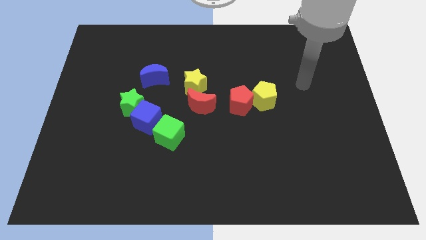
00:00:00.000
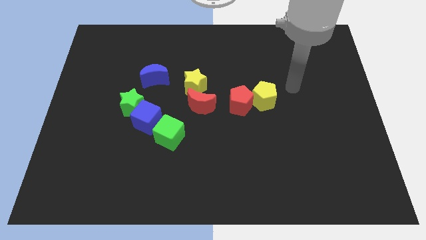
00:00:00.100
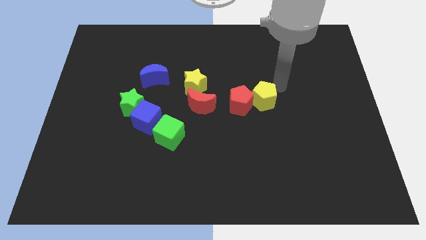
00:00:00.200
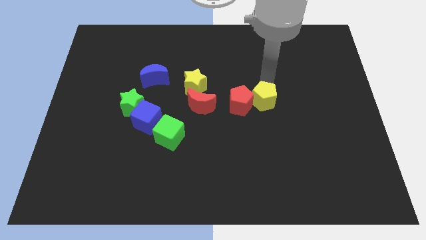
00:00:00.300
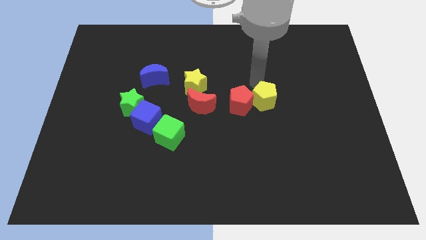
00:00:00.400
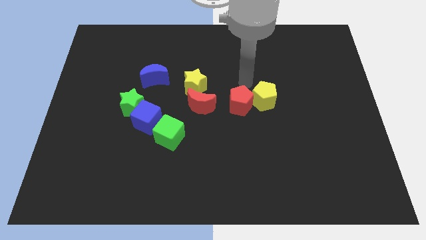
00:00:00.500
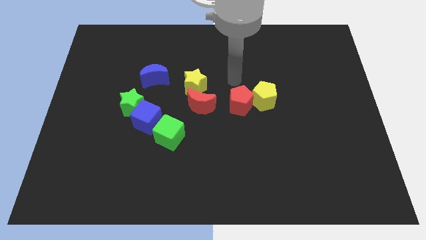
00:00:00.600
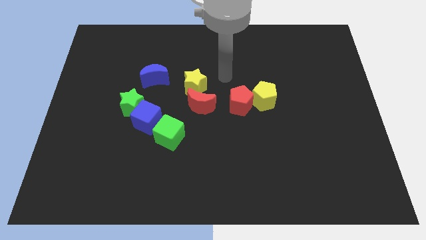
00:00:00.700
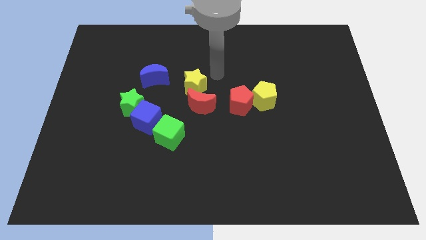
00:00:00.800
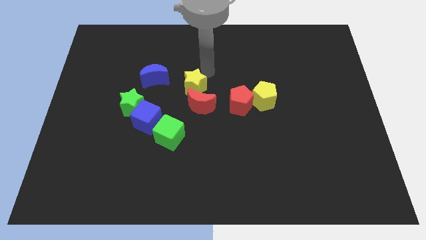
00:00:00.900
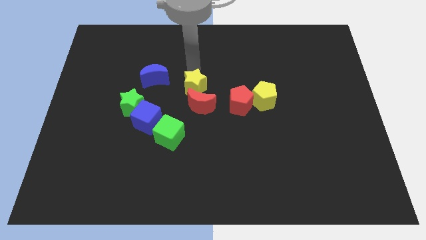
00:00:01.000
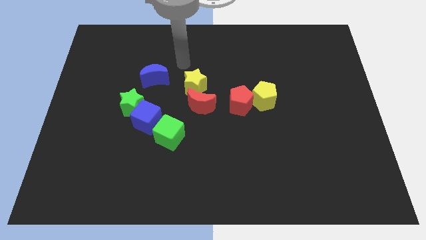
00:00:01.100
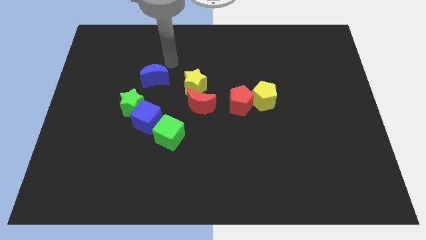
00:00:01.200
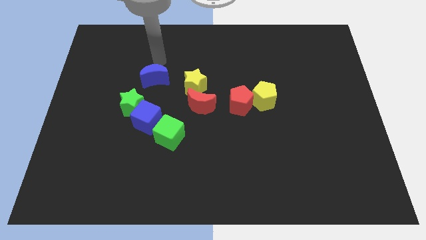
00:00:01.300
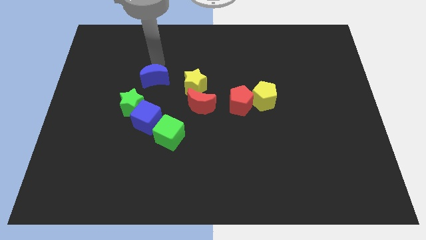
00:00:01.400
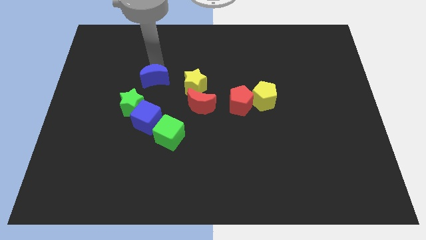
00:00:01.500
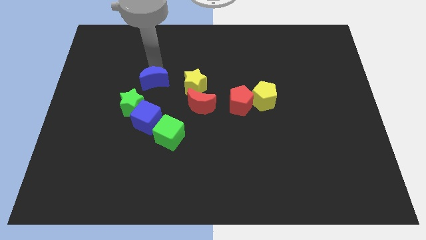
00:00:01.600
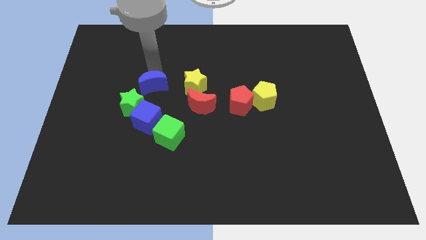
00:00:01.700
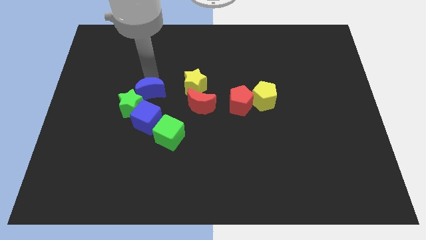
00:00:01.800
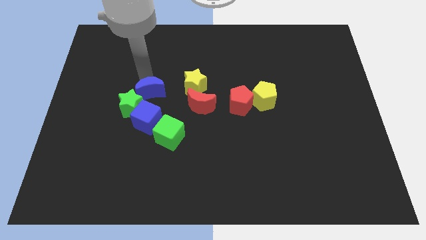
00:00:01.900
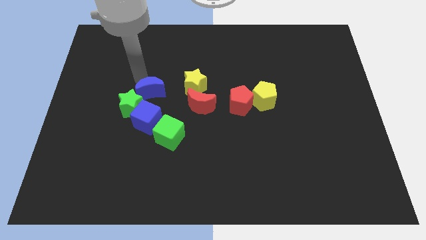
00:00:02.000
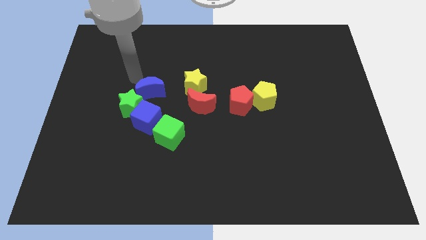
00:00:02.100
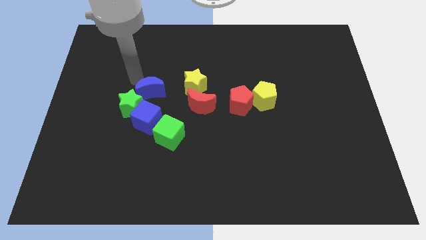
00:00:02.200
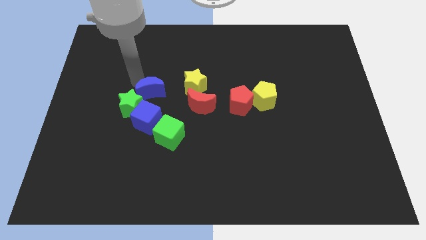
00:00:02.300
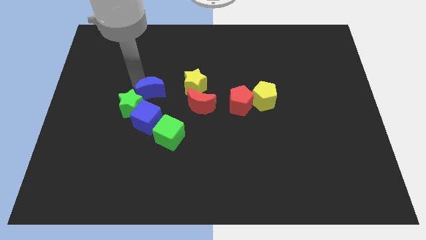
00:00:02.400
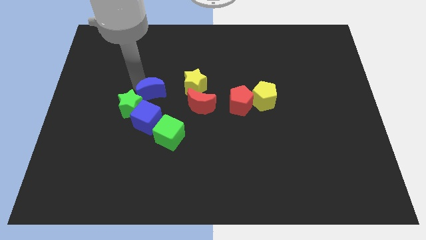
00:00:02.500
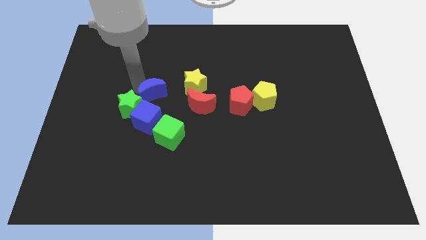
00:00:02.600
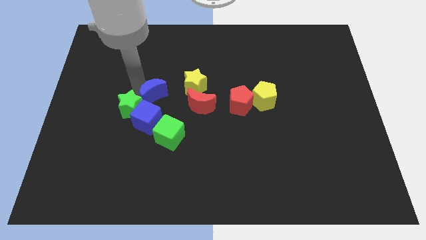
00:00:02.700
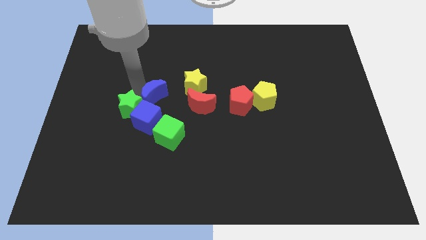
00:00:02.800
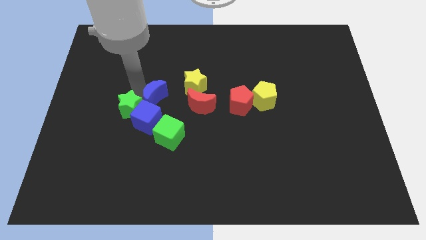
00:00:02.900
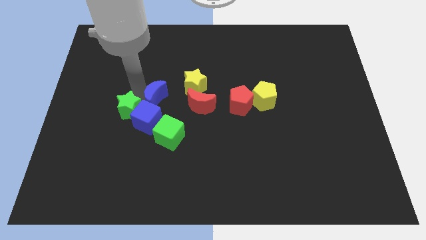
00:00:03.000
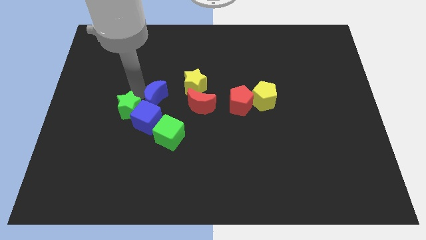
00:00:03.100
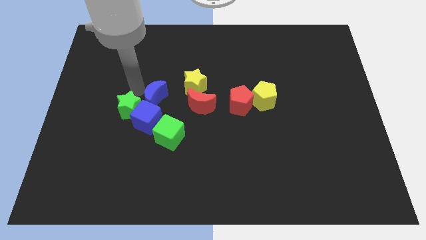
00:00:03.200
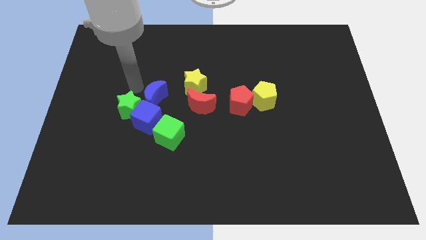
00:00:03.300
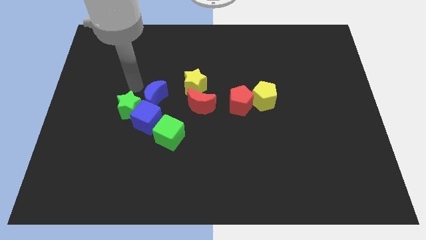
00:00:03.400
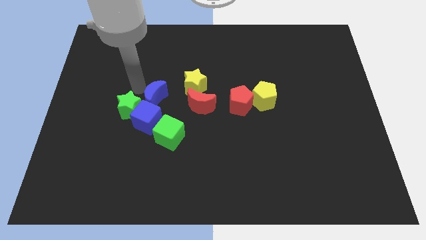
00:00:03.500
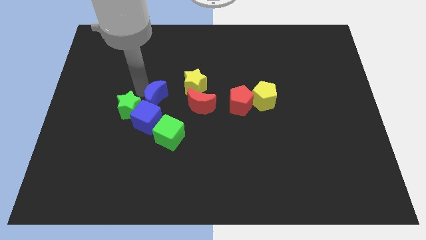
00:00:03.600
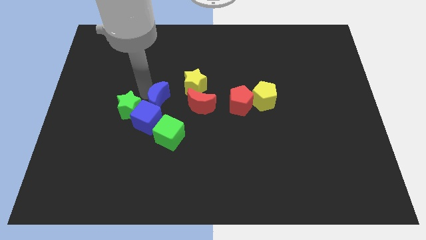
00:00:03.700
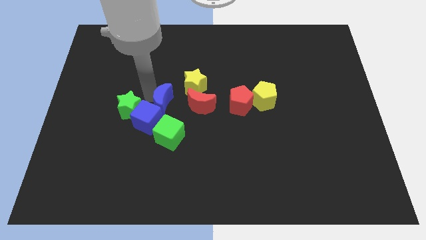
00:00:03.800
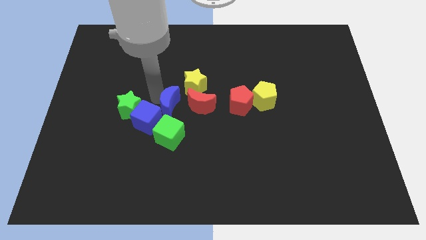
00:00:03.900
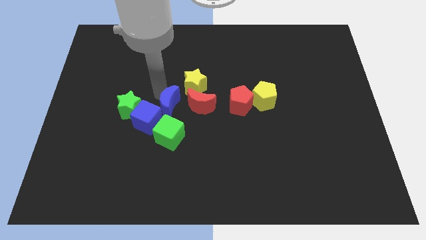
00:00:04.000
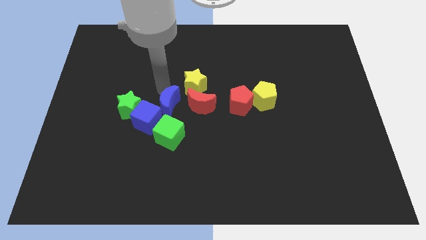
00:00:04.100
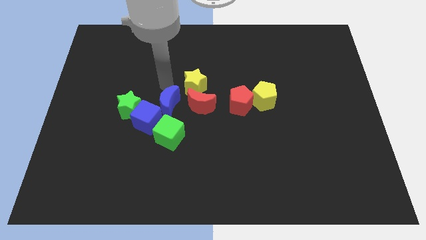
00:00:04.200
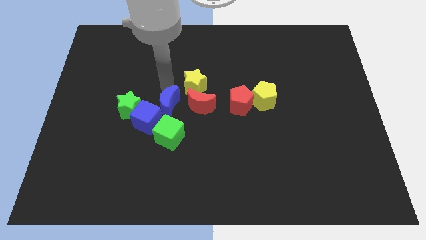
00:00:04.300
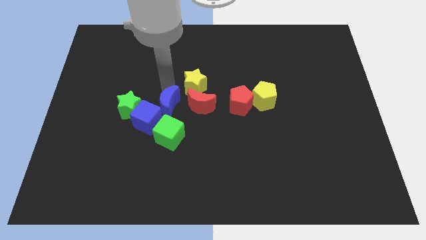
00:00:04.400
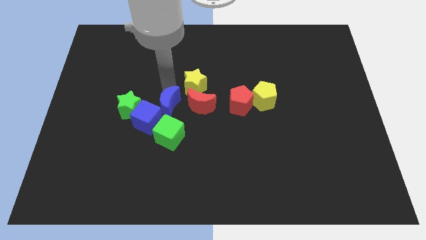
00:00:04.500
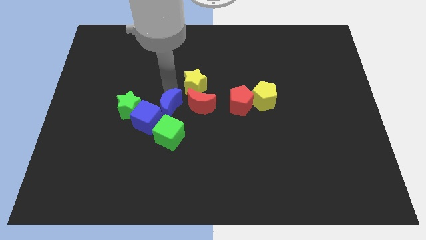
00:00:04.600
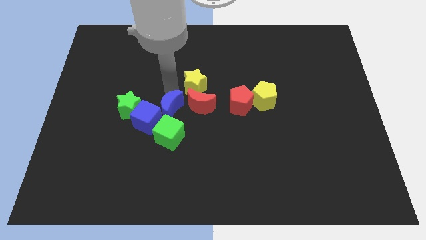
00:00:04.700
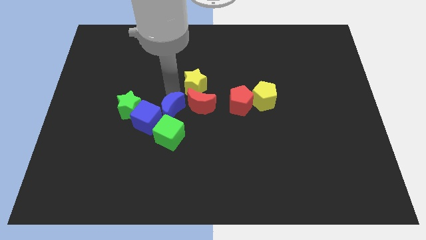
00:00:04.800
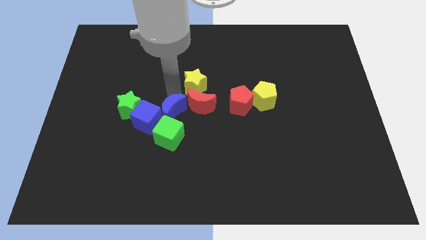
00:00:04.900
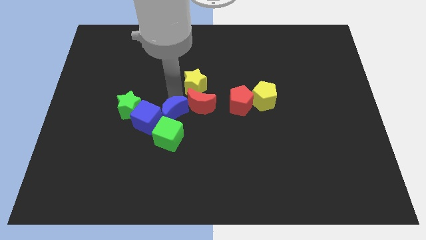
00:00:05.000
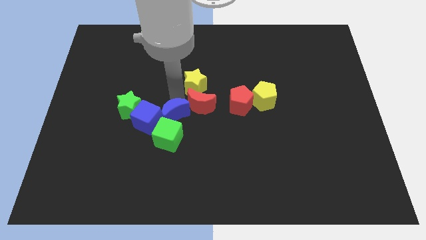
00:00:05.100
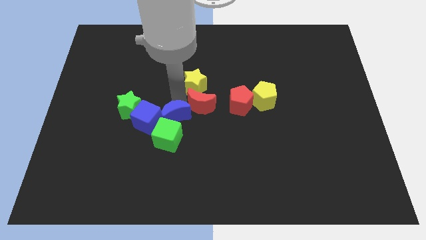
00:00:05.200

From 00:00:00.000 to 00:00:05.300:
move the blue moon next to the green cube

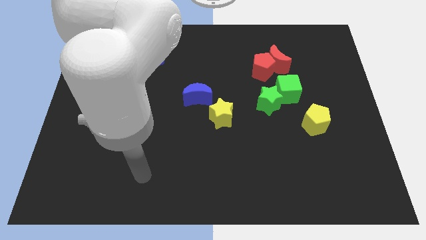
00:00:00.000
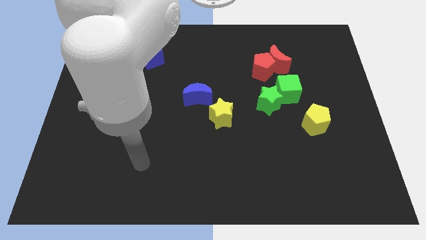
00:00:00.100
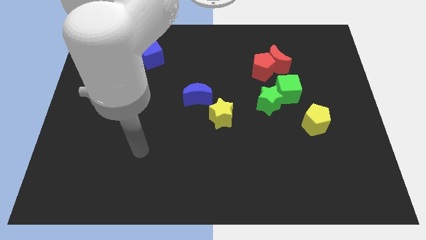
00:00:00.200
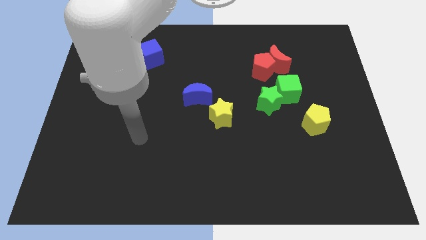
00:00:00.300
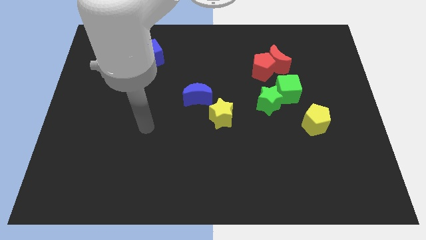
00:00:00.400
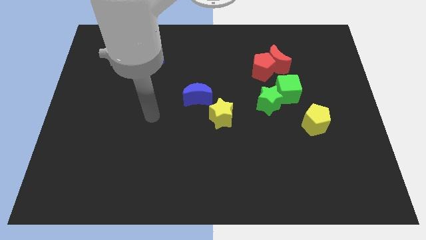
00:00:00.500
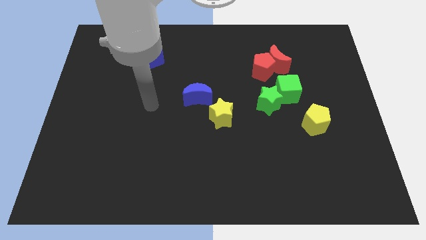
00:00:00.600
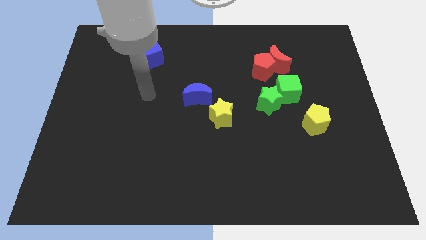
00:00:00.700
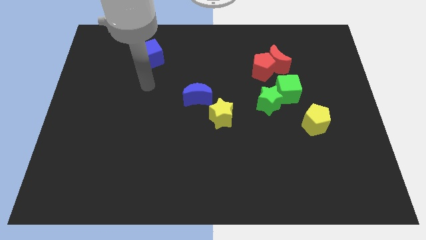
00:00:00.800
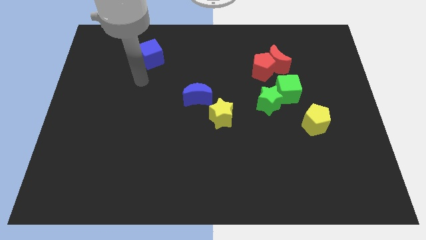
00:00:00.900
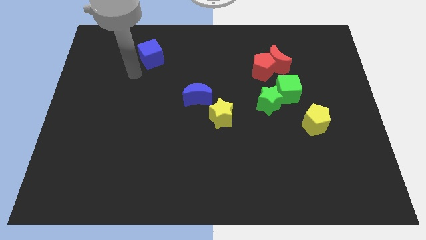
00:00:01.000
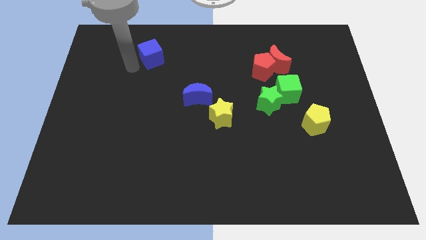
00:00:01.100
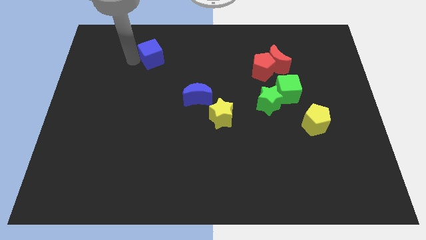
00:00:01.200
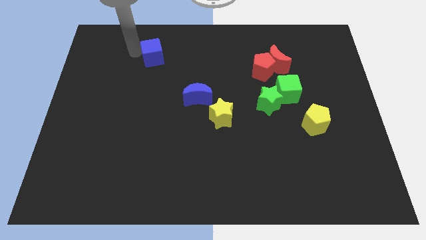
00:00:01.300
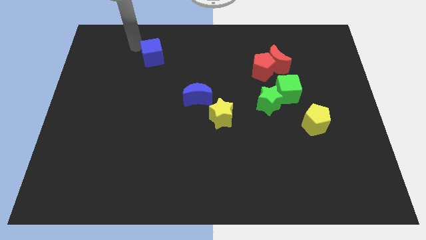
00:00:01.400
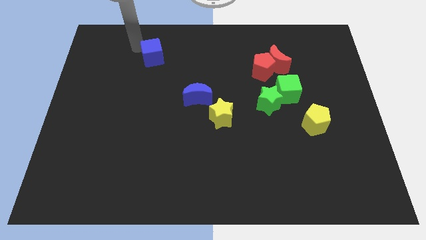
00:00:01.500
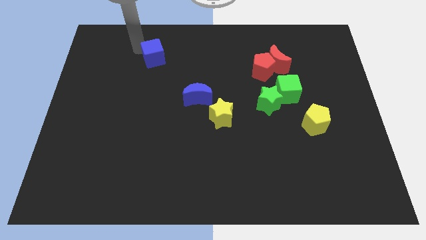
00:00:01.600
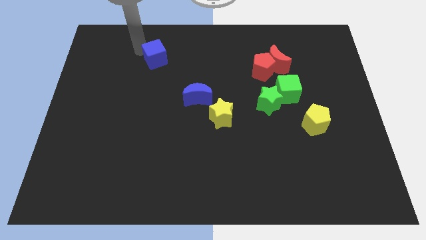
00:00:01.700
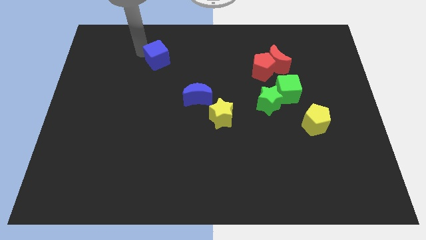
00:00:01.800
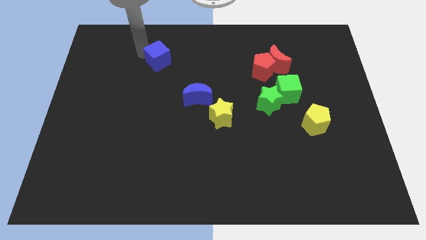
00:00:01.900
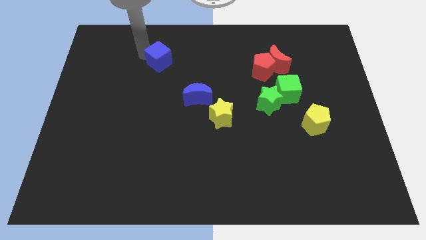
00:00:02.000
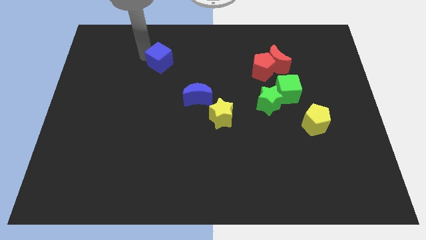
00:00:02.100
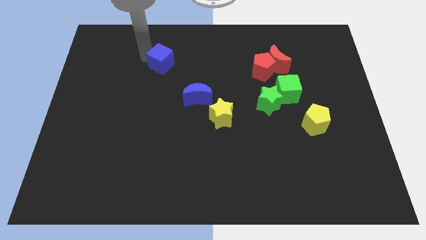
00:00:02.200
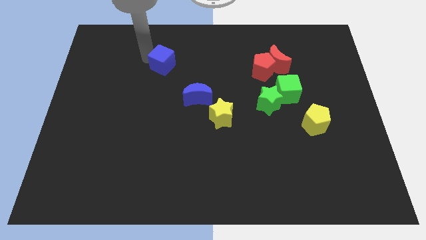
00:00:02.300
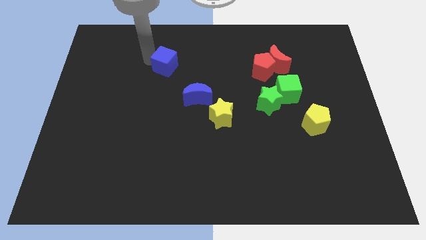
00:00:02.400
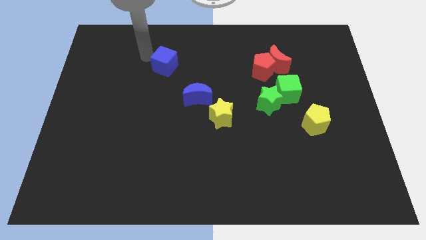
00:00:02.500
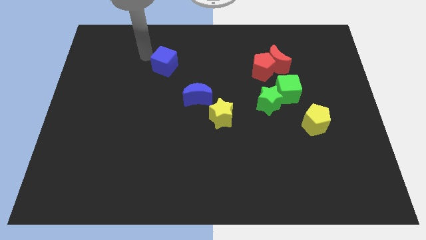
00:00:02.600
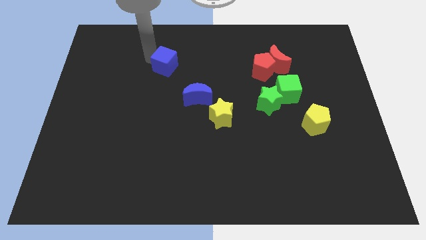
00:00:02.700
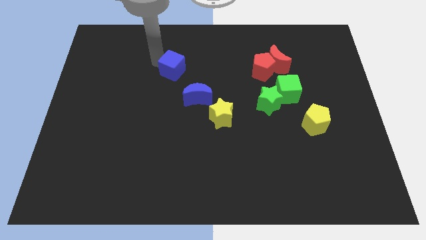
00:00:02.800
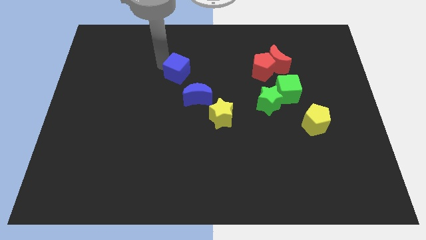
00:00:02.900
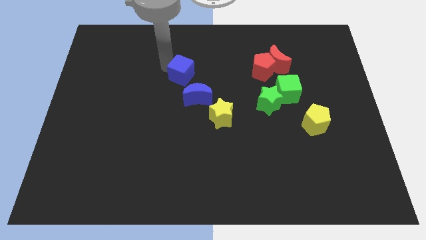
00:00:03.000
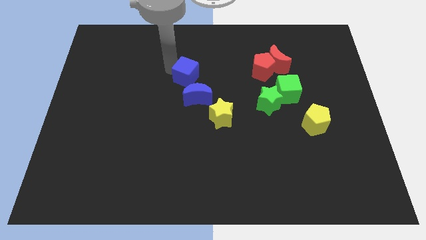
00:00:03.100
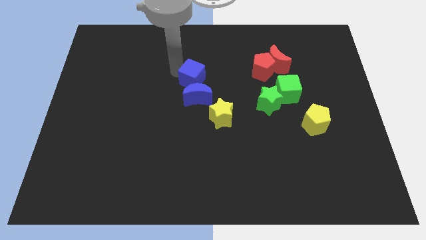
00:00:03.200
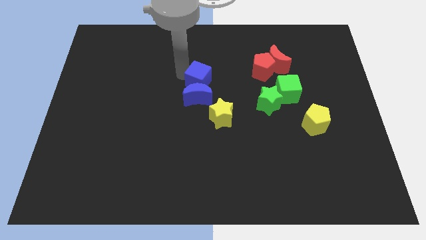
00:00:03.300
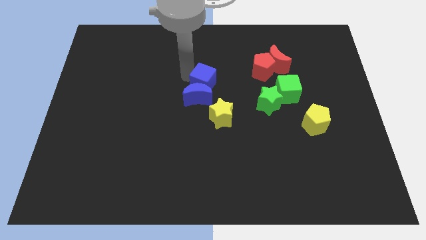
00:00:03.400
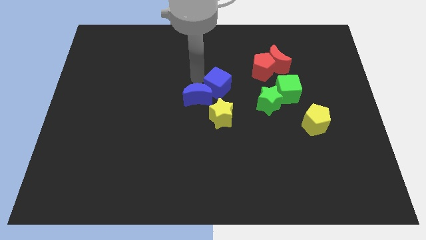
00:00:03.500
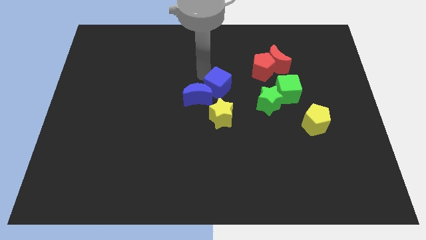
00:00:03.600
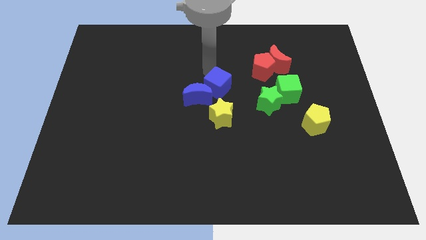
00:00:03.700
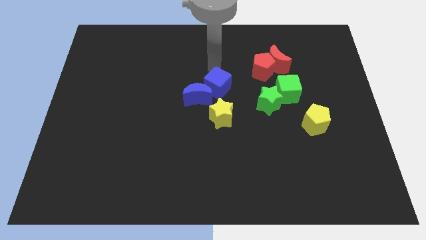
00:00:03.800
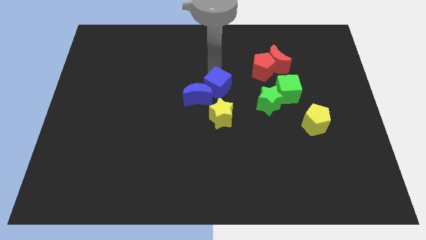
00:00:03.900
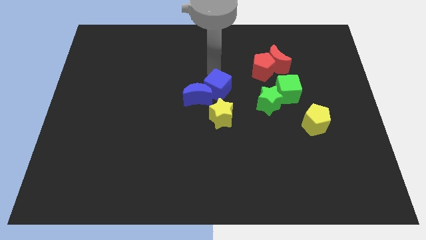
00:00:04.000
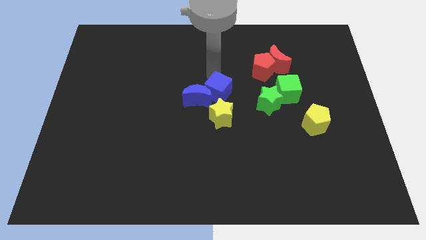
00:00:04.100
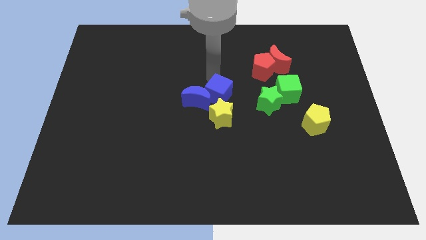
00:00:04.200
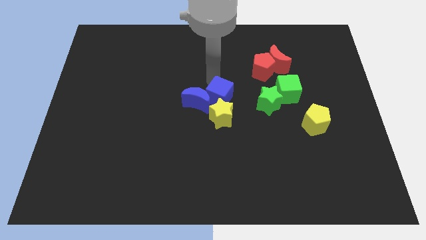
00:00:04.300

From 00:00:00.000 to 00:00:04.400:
put the blue cube next to the yellow star
